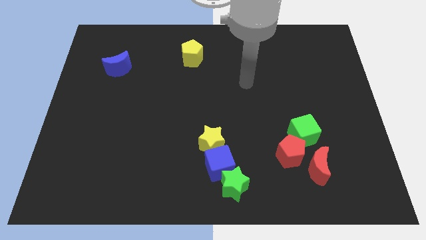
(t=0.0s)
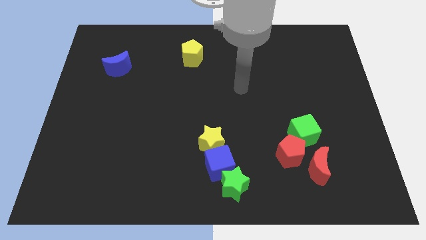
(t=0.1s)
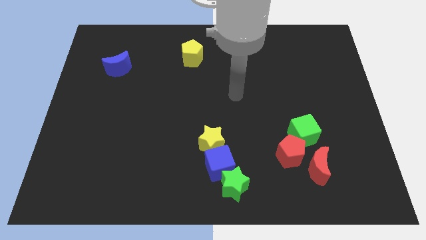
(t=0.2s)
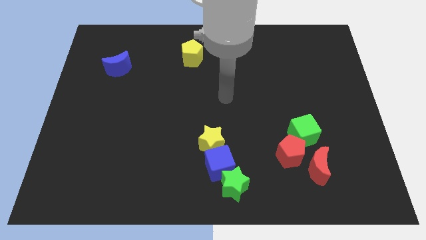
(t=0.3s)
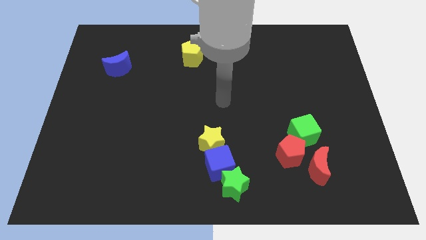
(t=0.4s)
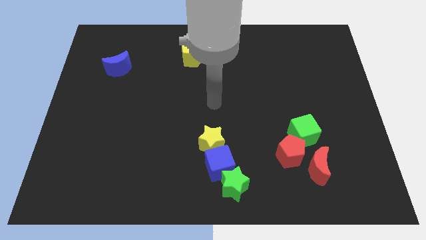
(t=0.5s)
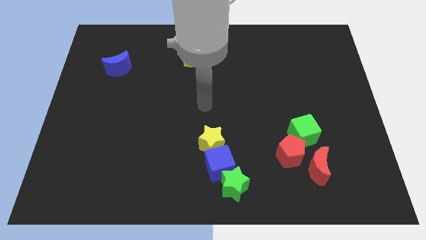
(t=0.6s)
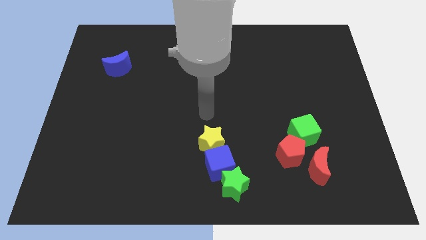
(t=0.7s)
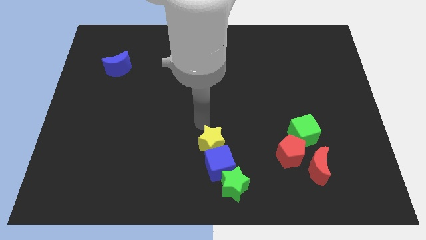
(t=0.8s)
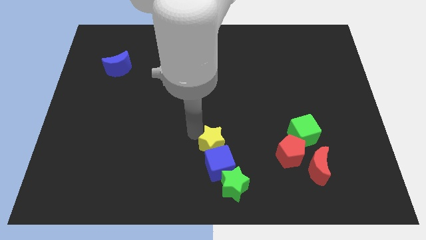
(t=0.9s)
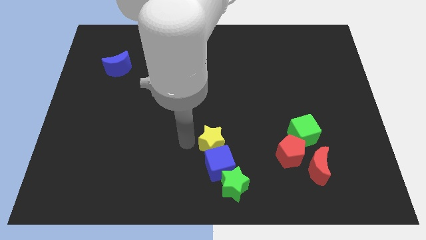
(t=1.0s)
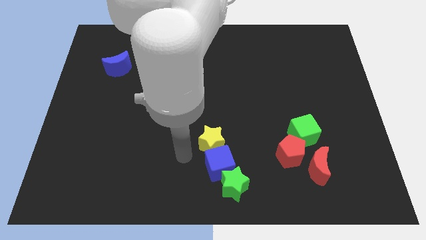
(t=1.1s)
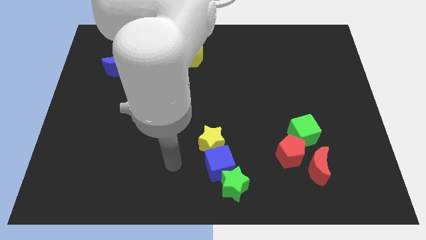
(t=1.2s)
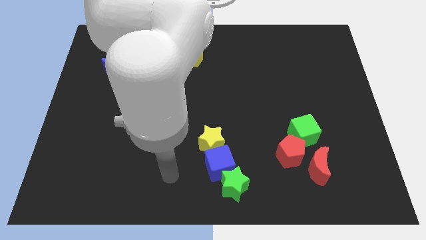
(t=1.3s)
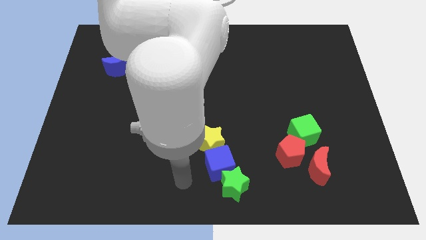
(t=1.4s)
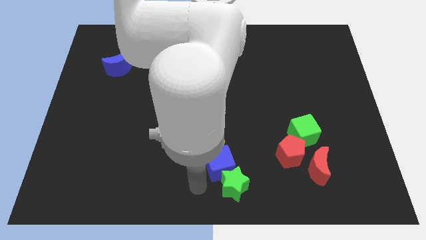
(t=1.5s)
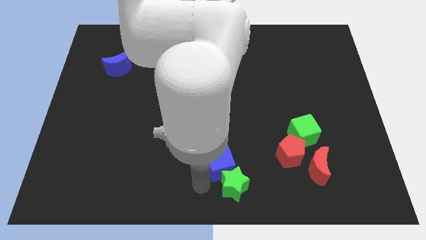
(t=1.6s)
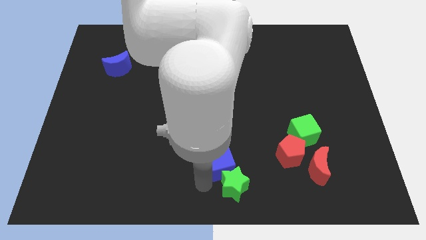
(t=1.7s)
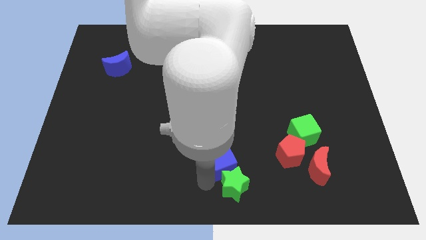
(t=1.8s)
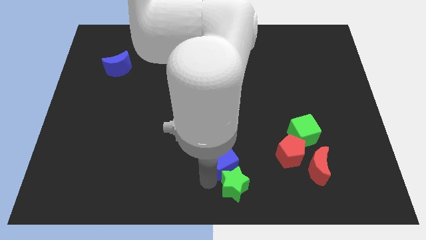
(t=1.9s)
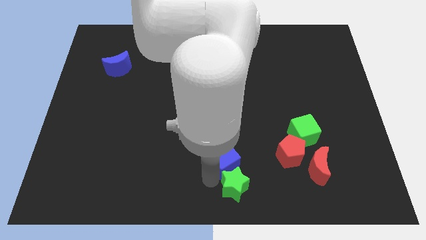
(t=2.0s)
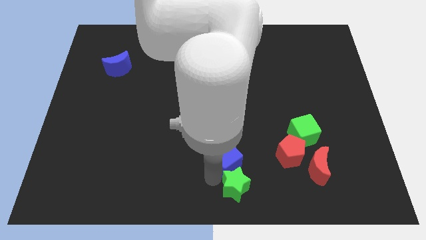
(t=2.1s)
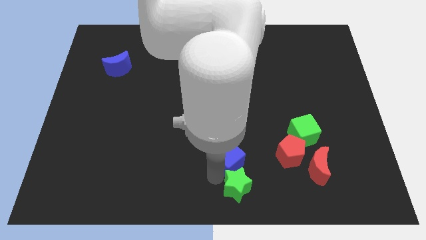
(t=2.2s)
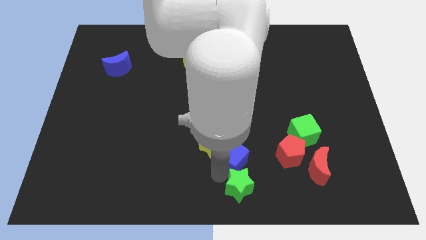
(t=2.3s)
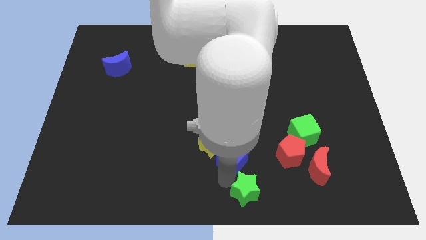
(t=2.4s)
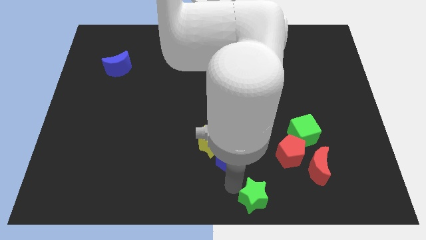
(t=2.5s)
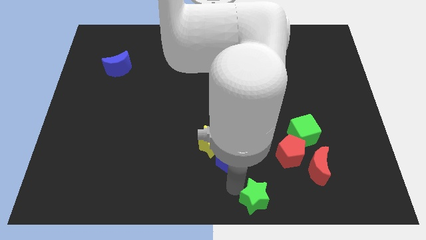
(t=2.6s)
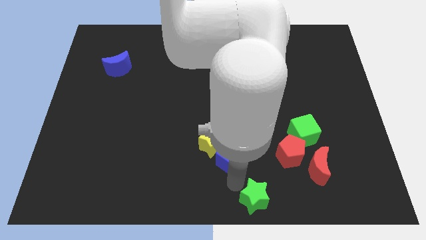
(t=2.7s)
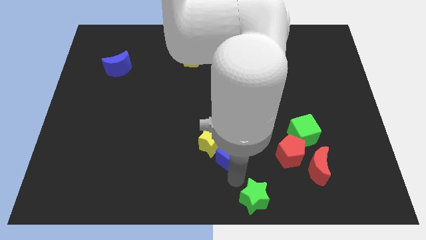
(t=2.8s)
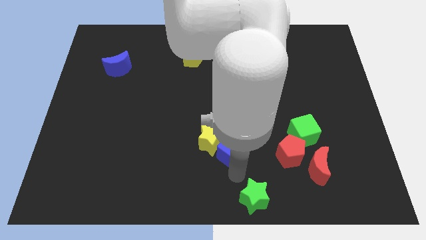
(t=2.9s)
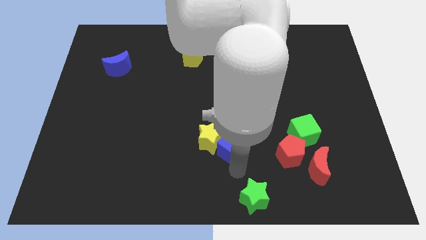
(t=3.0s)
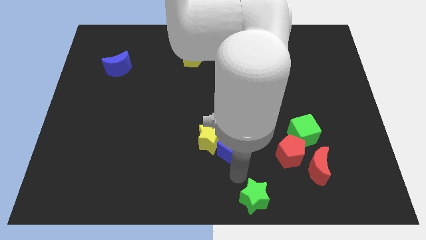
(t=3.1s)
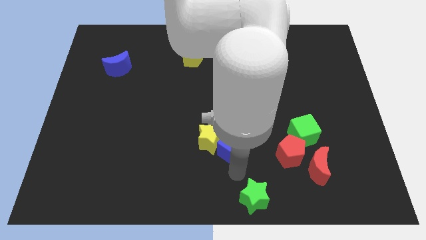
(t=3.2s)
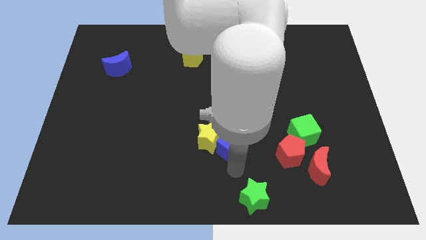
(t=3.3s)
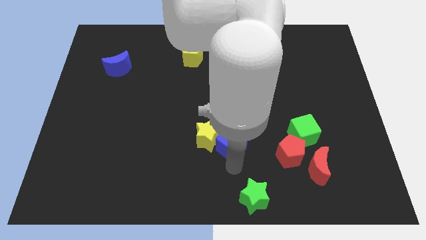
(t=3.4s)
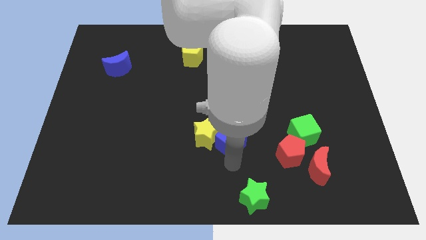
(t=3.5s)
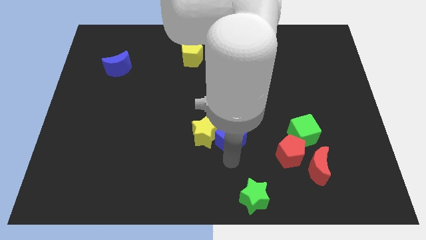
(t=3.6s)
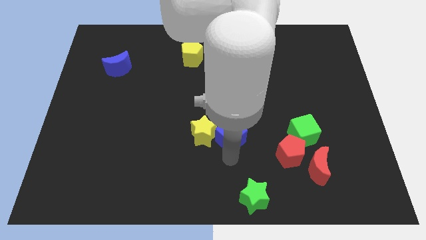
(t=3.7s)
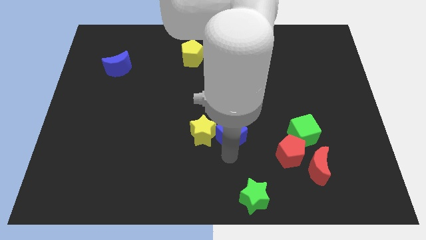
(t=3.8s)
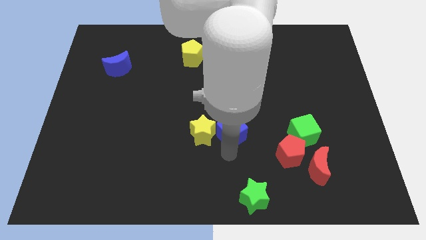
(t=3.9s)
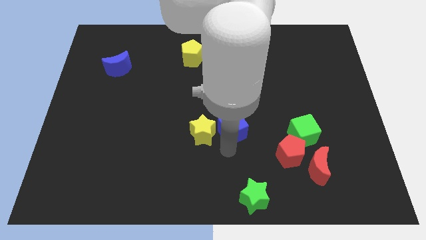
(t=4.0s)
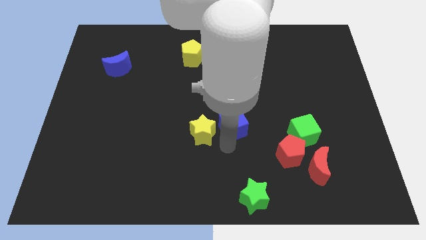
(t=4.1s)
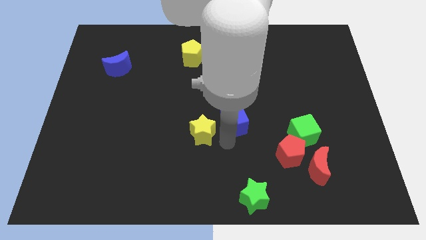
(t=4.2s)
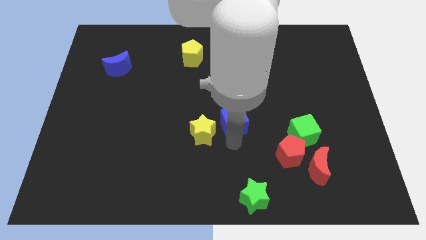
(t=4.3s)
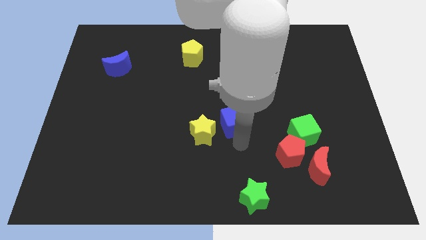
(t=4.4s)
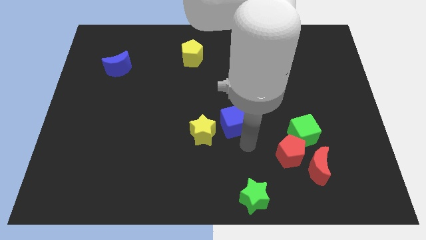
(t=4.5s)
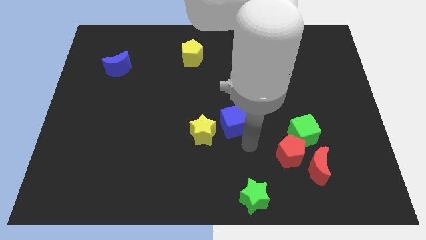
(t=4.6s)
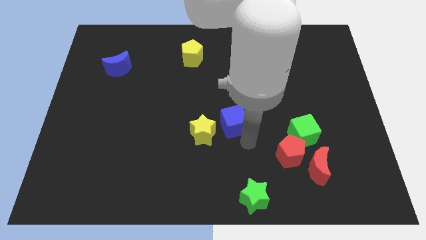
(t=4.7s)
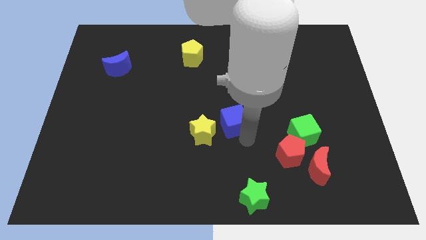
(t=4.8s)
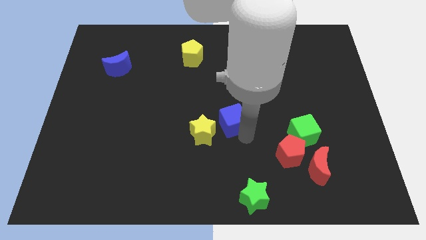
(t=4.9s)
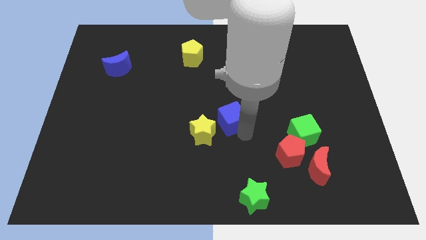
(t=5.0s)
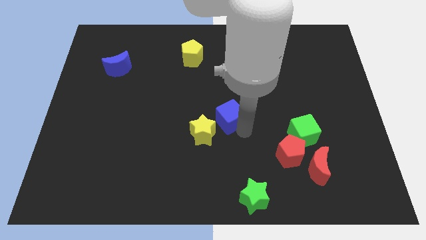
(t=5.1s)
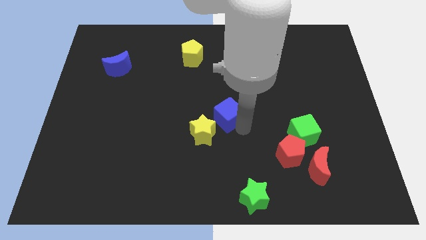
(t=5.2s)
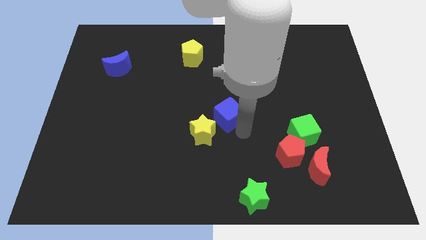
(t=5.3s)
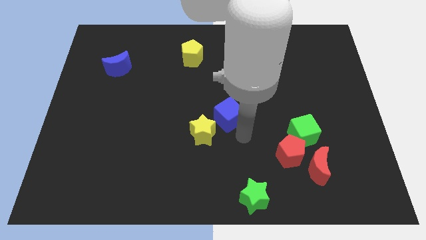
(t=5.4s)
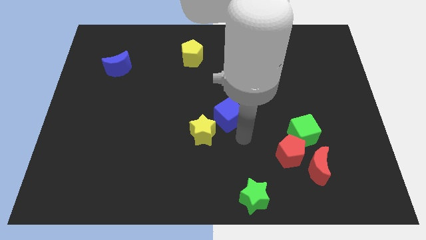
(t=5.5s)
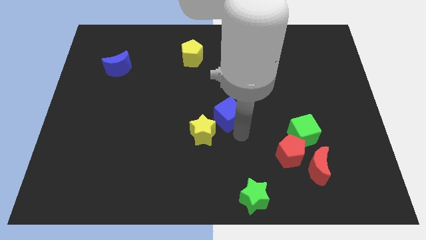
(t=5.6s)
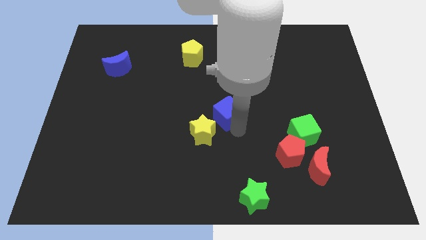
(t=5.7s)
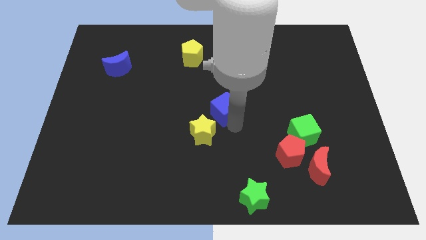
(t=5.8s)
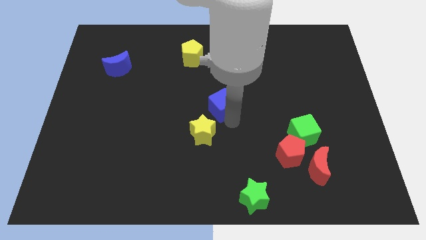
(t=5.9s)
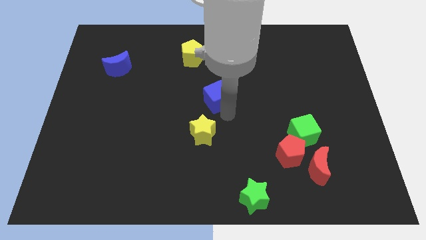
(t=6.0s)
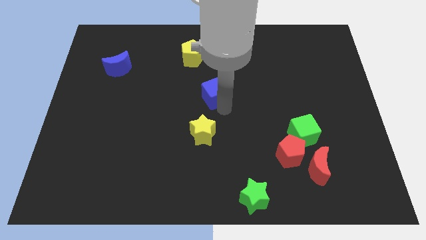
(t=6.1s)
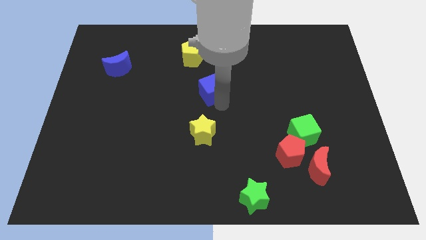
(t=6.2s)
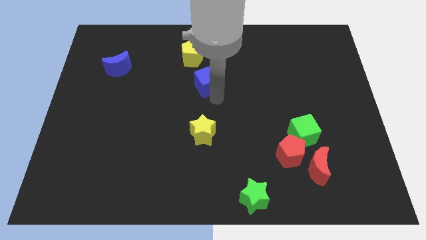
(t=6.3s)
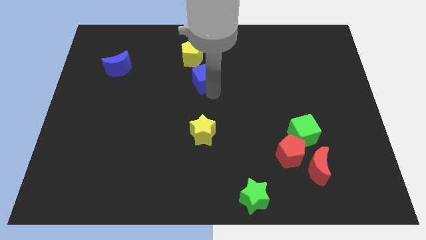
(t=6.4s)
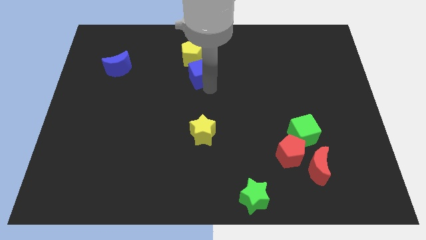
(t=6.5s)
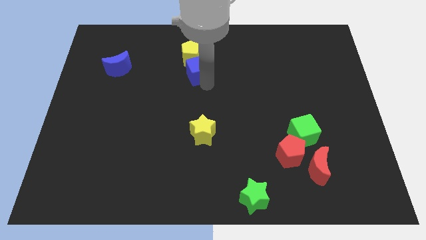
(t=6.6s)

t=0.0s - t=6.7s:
move the blue cube close to the yellow pentagon

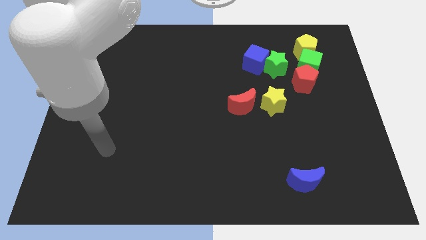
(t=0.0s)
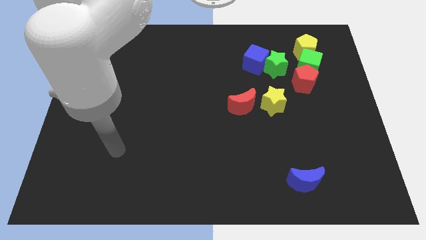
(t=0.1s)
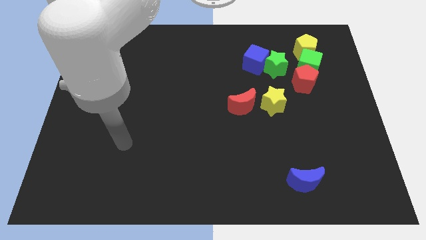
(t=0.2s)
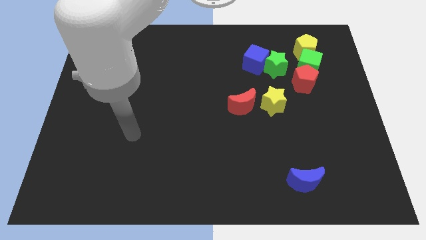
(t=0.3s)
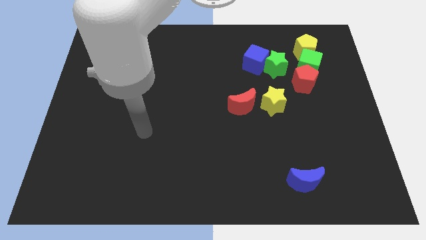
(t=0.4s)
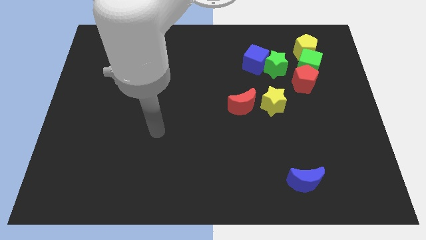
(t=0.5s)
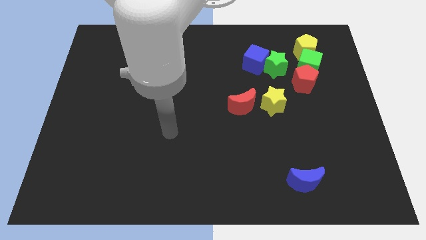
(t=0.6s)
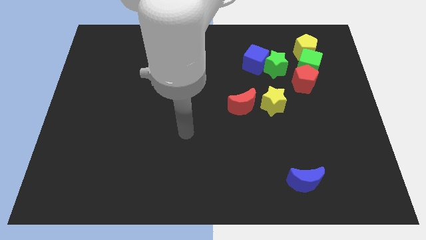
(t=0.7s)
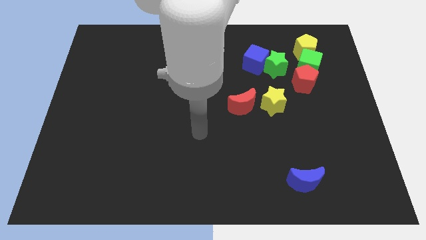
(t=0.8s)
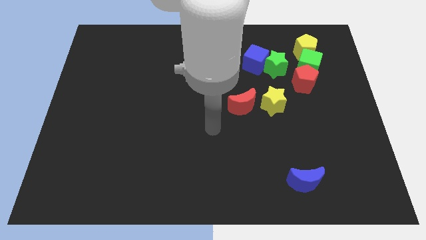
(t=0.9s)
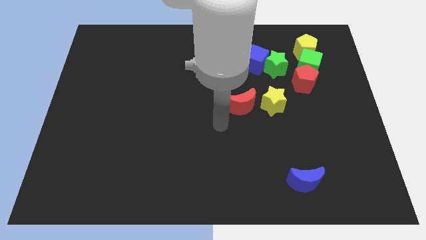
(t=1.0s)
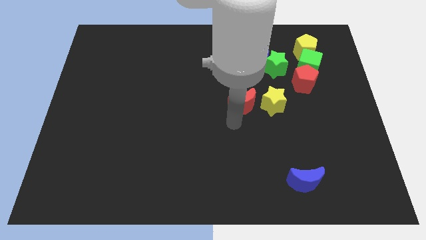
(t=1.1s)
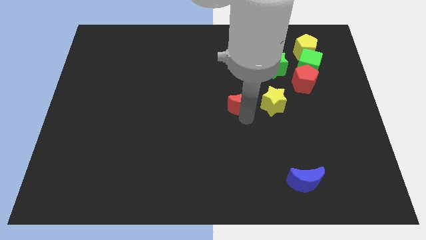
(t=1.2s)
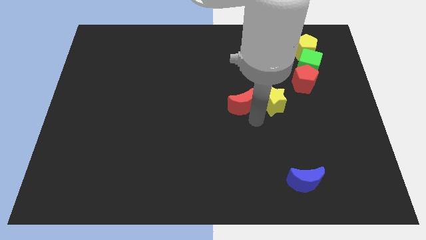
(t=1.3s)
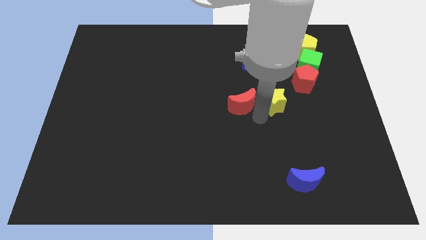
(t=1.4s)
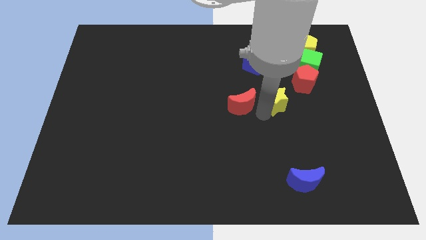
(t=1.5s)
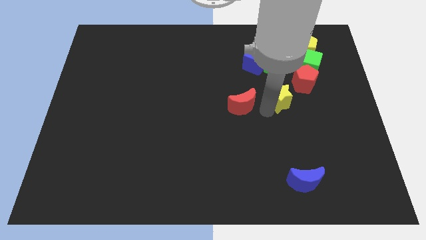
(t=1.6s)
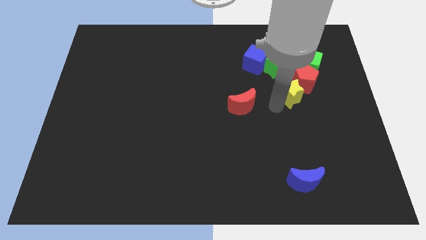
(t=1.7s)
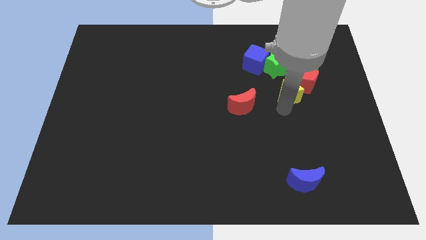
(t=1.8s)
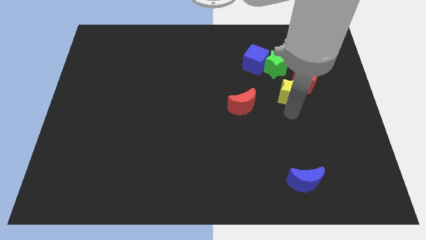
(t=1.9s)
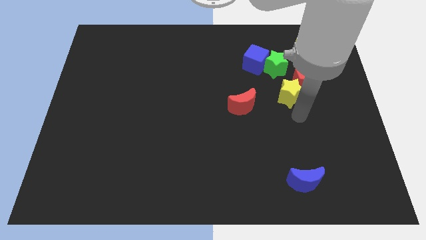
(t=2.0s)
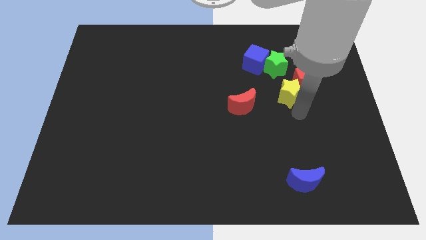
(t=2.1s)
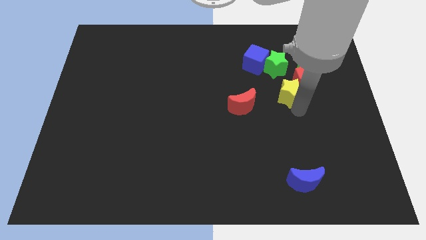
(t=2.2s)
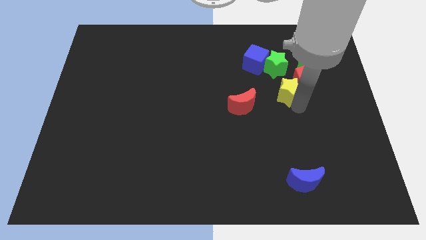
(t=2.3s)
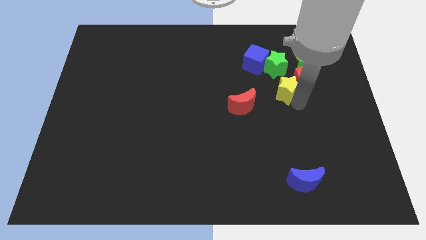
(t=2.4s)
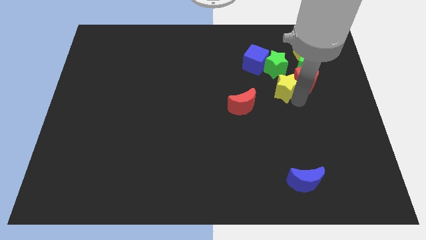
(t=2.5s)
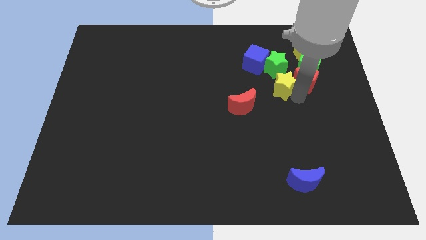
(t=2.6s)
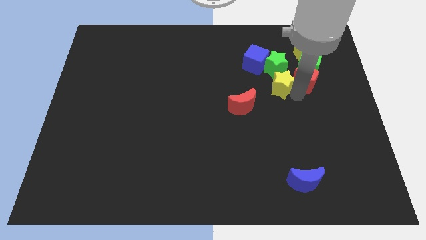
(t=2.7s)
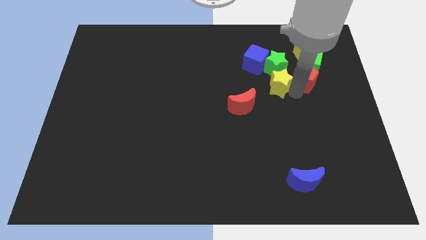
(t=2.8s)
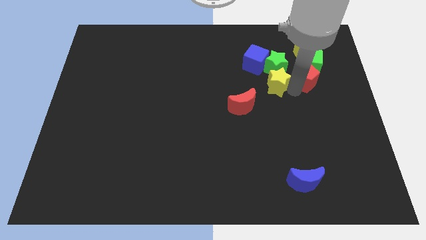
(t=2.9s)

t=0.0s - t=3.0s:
slide the yellow star to the green star
